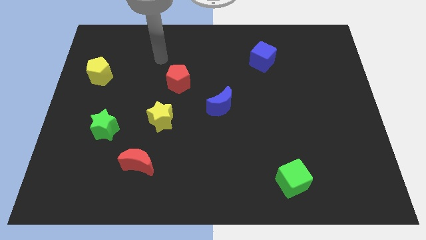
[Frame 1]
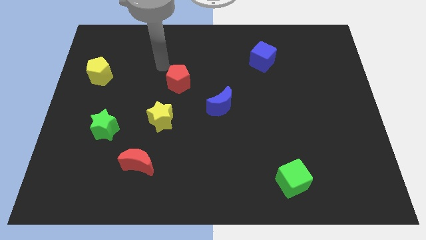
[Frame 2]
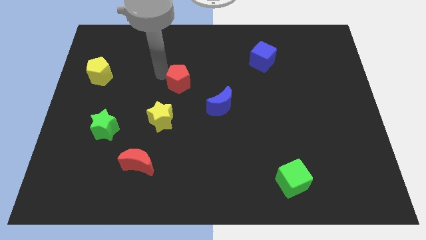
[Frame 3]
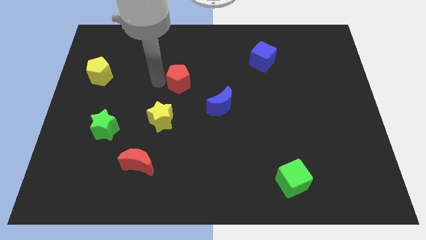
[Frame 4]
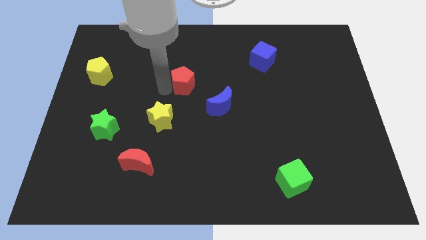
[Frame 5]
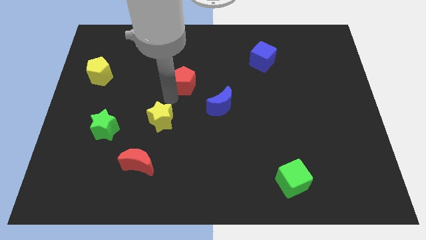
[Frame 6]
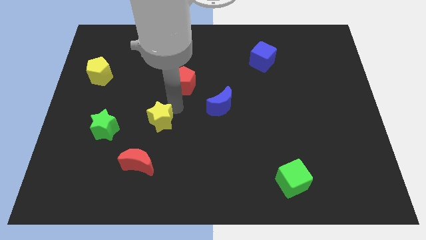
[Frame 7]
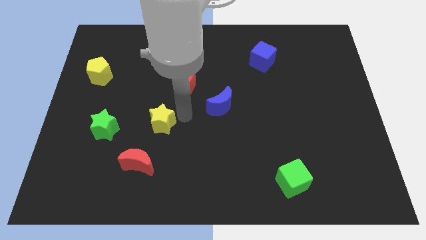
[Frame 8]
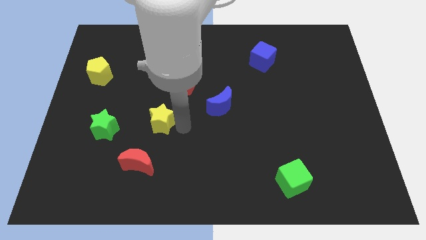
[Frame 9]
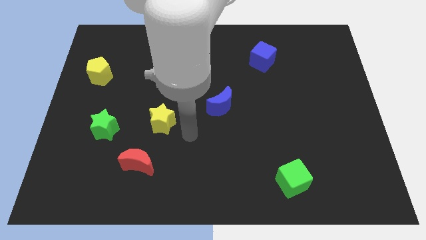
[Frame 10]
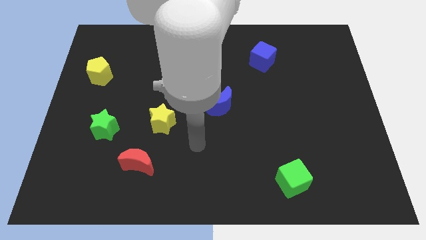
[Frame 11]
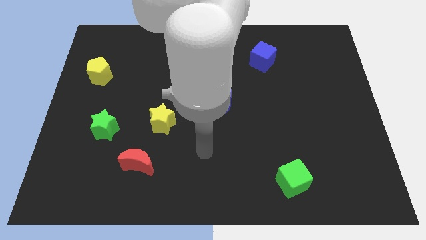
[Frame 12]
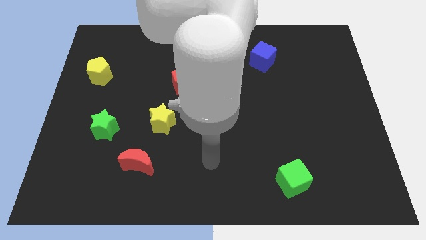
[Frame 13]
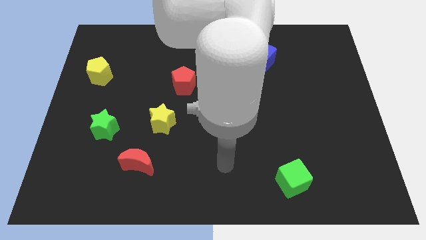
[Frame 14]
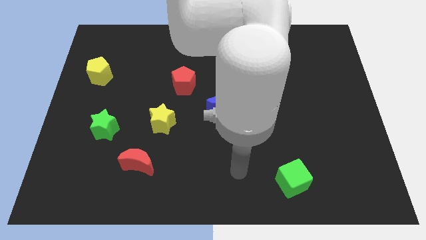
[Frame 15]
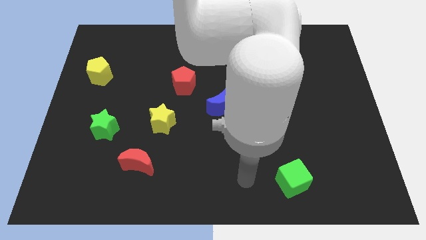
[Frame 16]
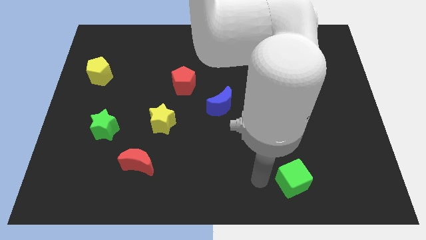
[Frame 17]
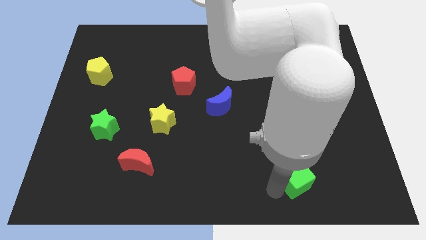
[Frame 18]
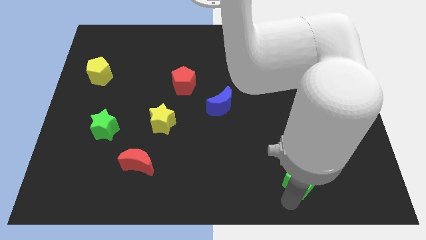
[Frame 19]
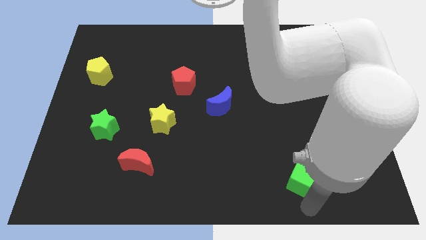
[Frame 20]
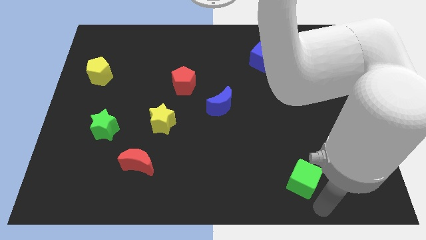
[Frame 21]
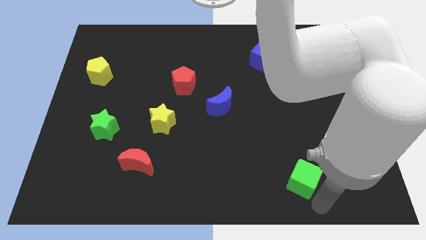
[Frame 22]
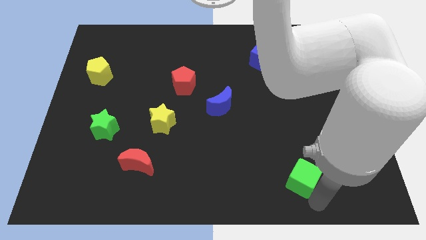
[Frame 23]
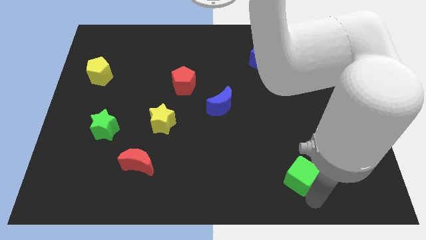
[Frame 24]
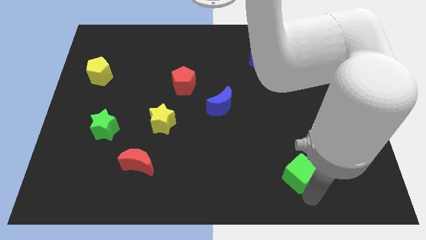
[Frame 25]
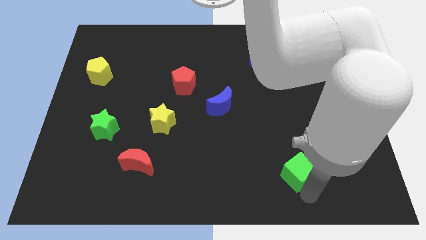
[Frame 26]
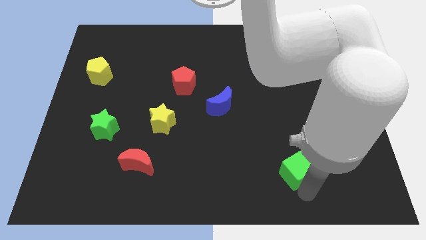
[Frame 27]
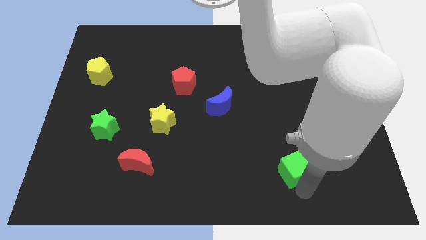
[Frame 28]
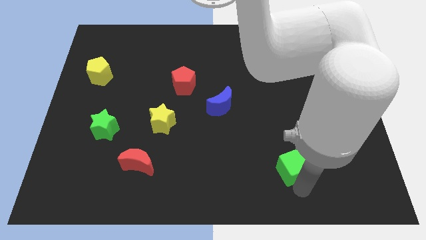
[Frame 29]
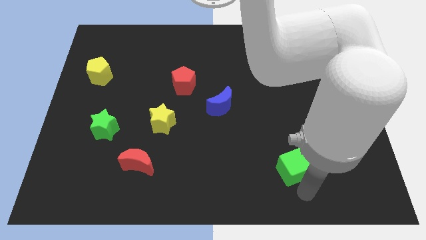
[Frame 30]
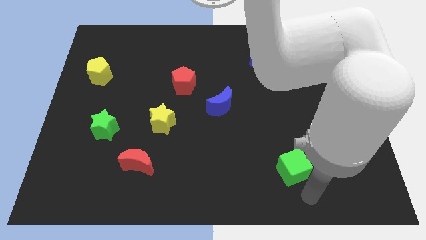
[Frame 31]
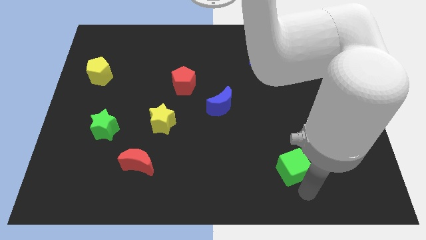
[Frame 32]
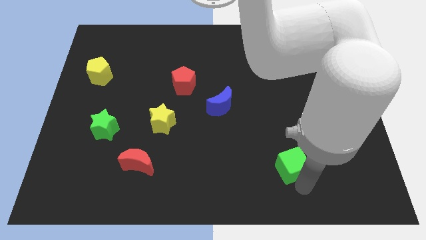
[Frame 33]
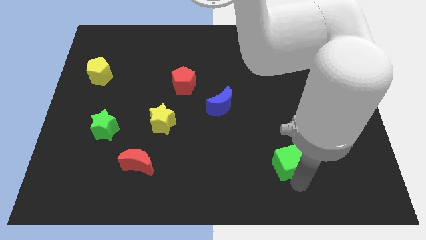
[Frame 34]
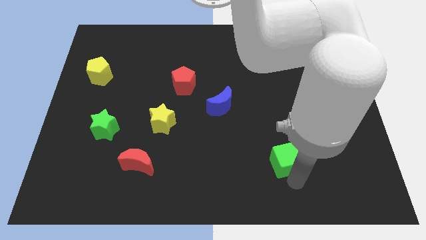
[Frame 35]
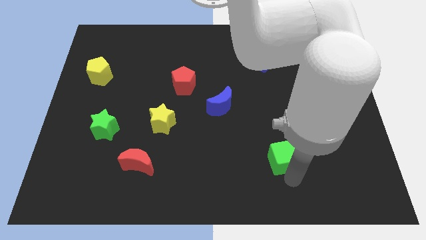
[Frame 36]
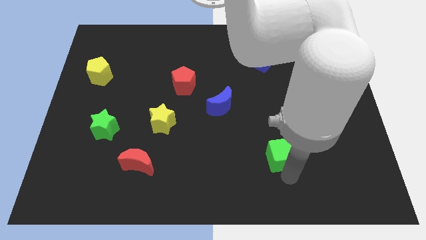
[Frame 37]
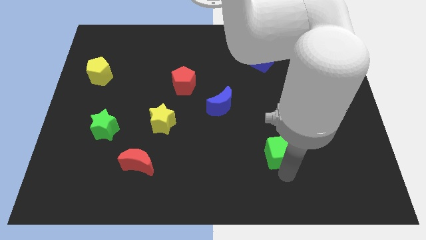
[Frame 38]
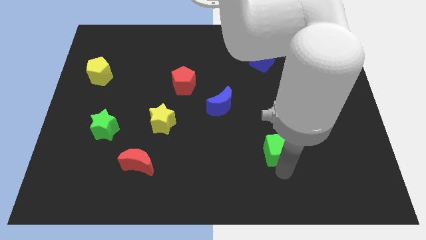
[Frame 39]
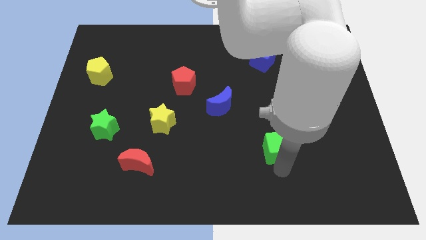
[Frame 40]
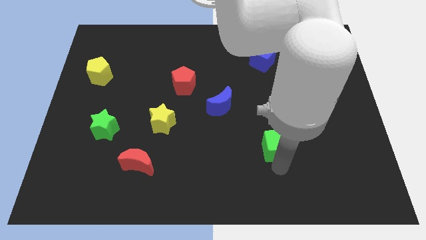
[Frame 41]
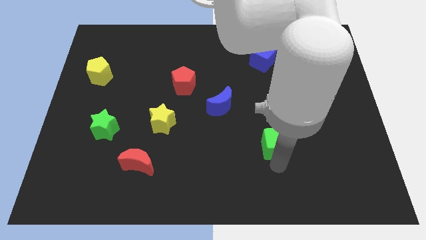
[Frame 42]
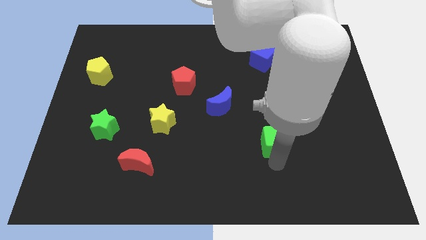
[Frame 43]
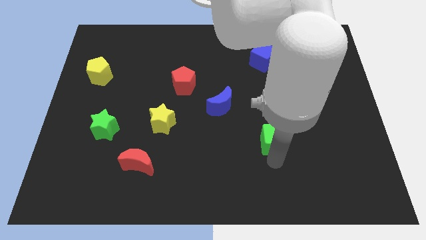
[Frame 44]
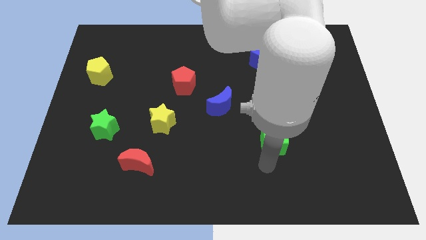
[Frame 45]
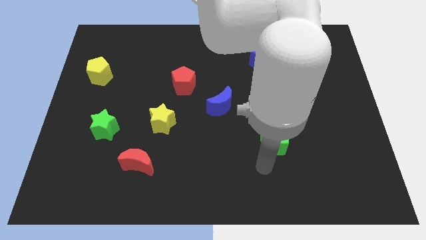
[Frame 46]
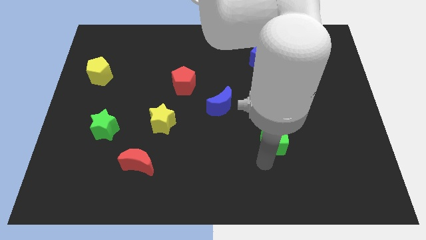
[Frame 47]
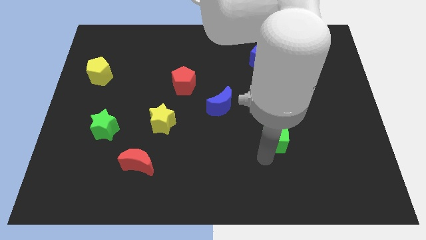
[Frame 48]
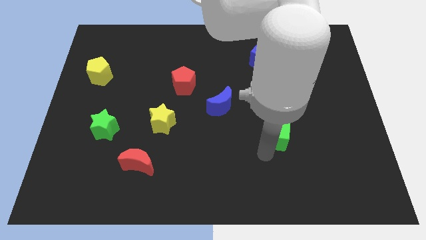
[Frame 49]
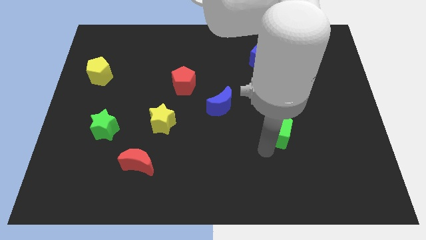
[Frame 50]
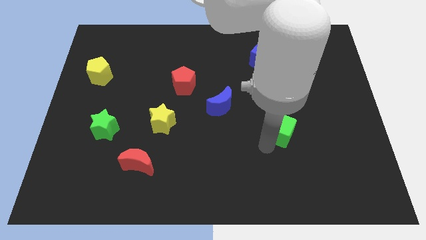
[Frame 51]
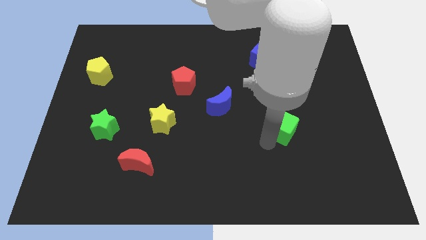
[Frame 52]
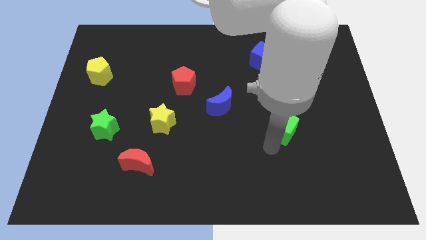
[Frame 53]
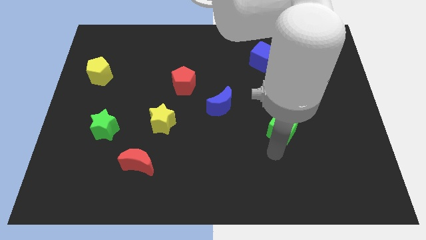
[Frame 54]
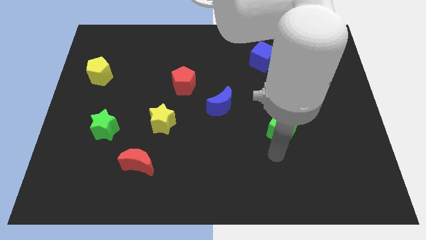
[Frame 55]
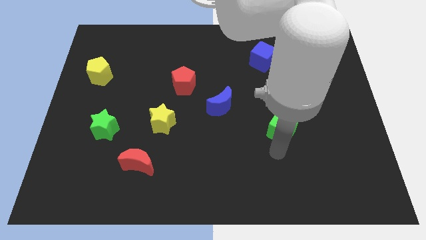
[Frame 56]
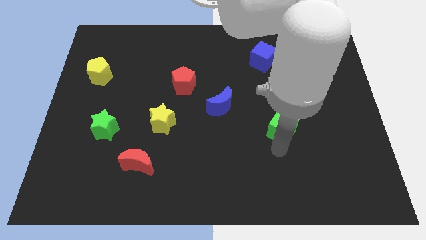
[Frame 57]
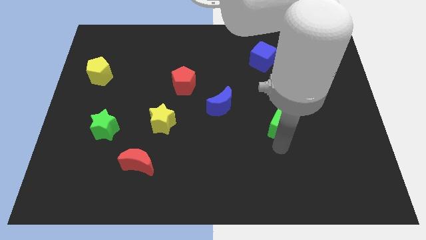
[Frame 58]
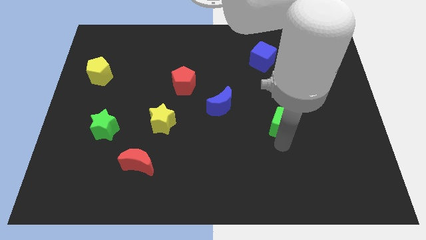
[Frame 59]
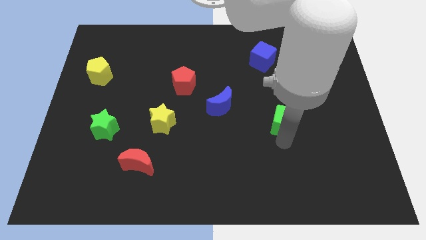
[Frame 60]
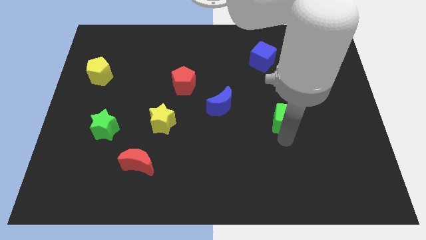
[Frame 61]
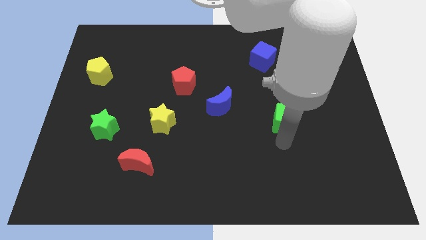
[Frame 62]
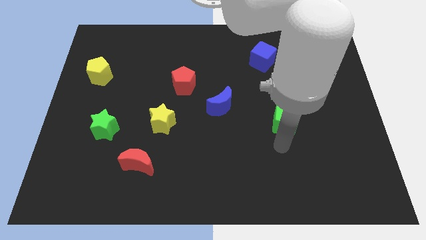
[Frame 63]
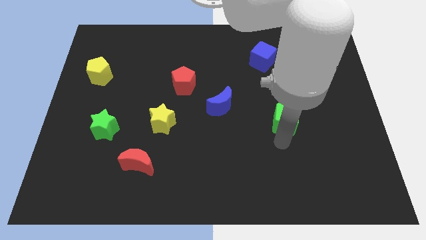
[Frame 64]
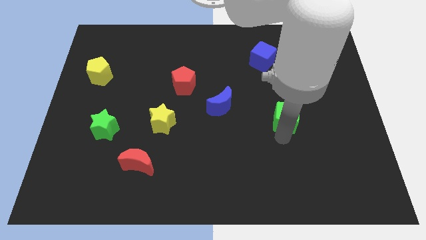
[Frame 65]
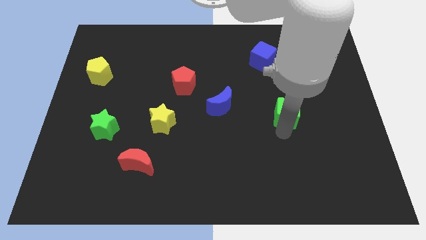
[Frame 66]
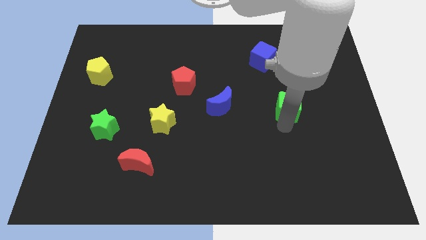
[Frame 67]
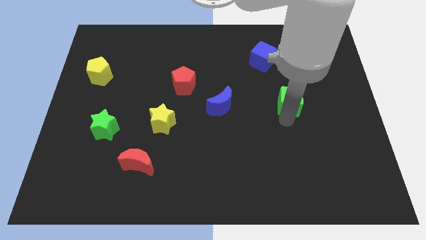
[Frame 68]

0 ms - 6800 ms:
slide the green cube up

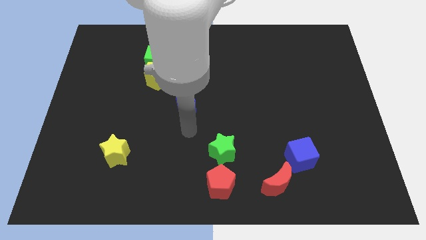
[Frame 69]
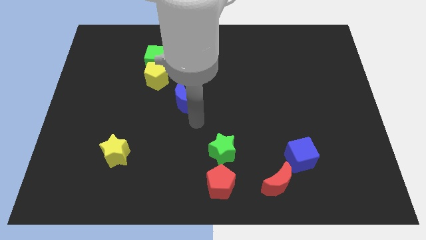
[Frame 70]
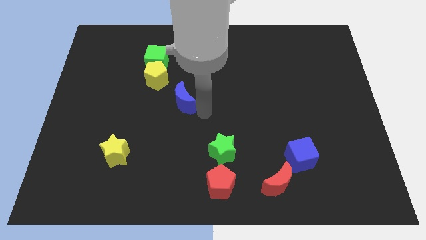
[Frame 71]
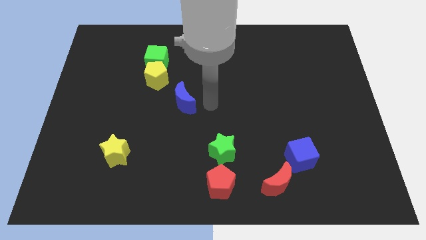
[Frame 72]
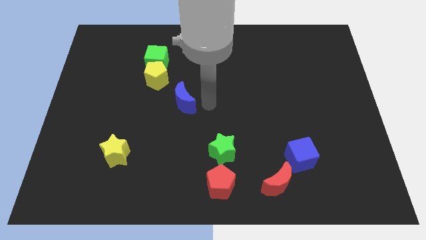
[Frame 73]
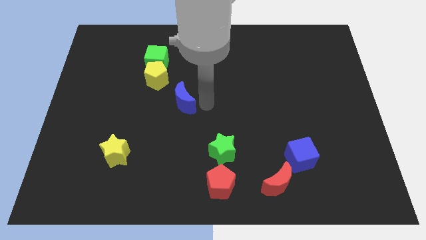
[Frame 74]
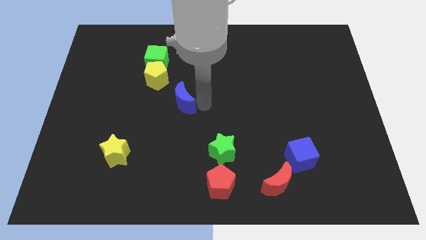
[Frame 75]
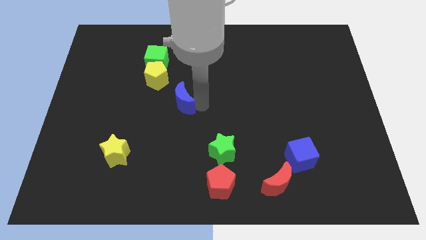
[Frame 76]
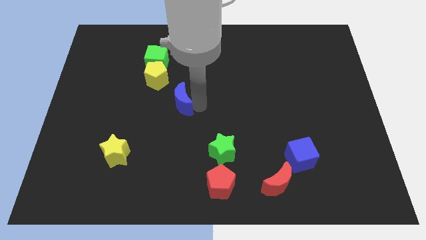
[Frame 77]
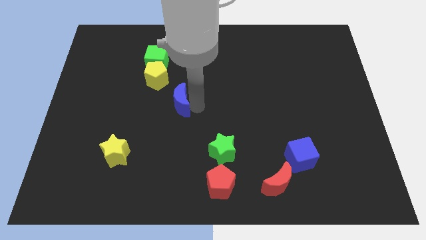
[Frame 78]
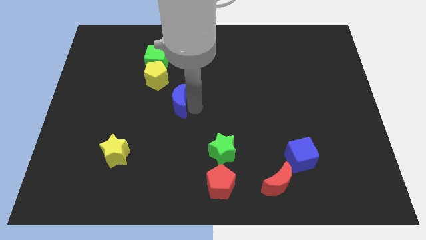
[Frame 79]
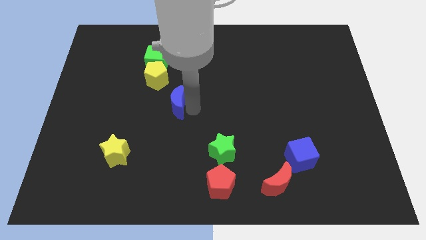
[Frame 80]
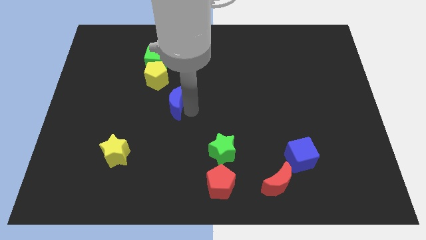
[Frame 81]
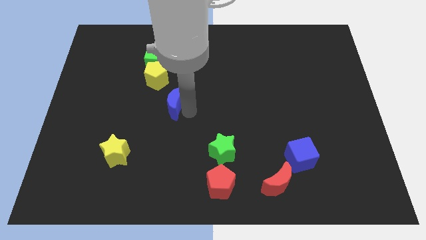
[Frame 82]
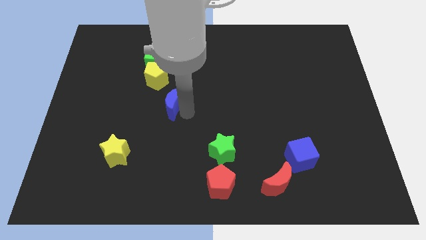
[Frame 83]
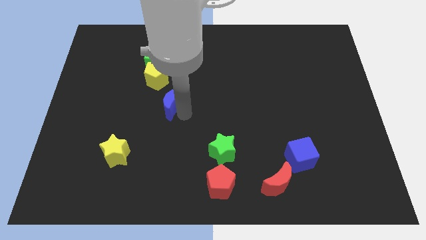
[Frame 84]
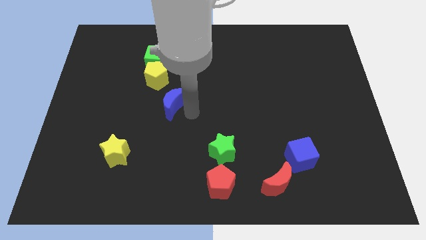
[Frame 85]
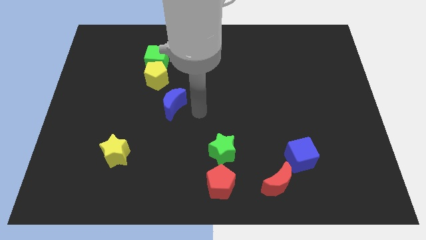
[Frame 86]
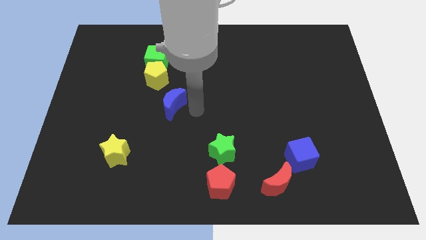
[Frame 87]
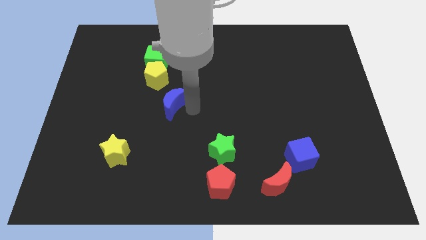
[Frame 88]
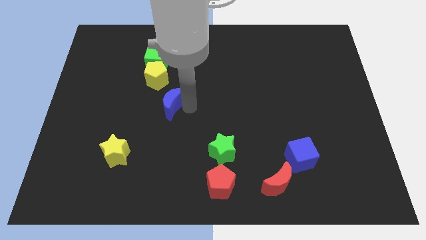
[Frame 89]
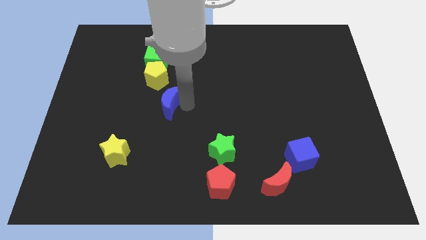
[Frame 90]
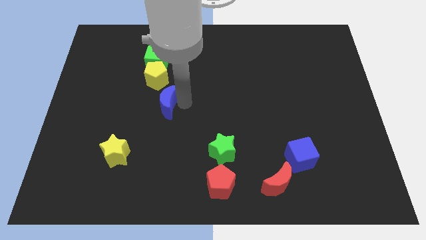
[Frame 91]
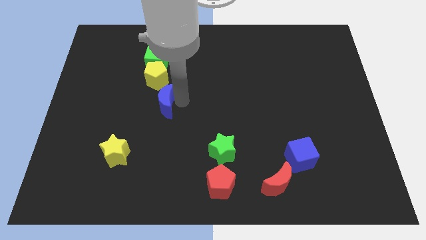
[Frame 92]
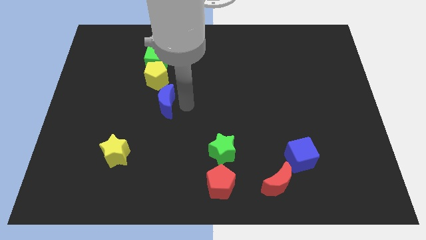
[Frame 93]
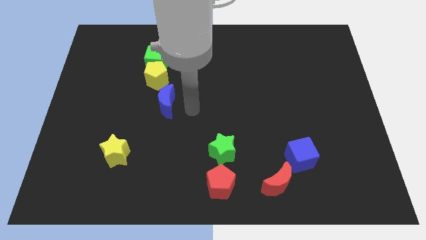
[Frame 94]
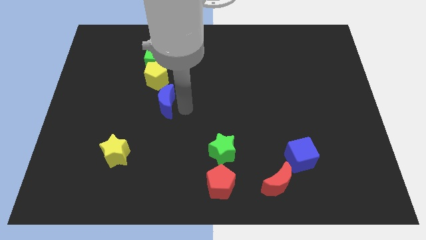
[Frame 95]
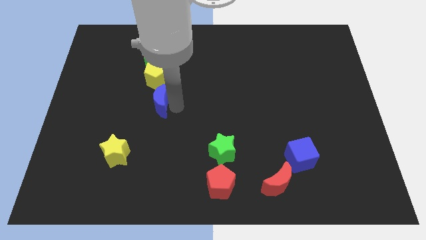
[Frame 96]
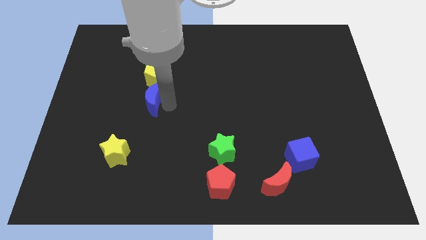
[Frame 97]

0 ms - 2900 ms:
push the blue moon to the left a bit
